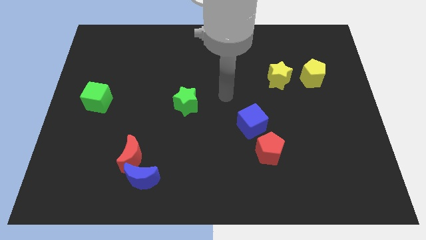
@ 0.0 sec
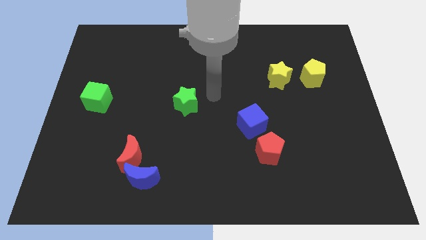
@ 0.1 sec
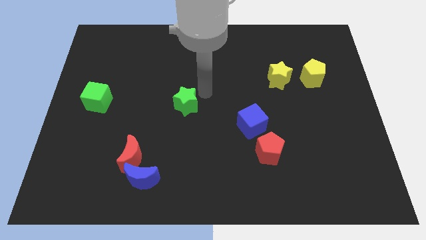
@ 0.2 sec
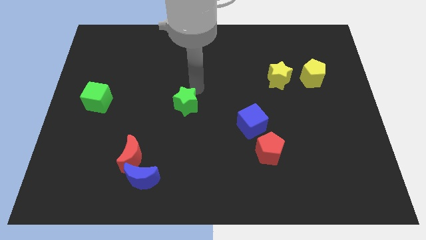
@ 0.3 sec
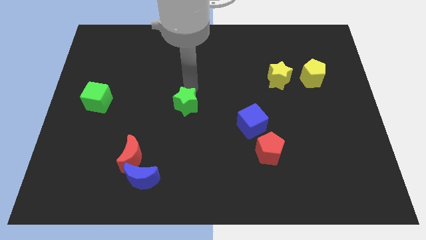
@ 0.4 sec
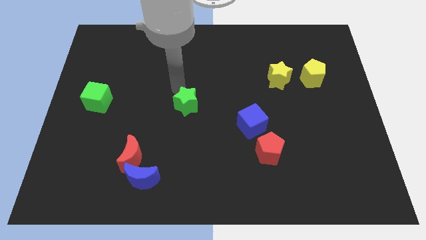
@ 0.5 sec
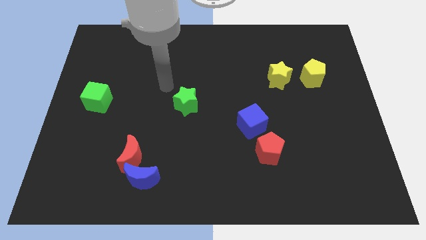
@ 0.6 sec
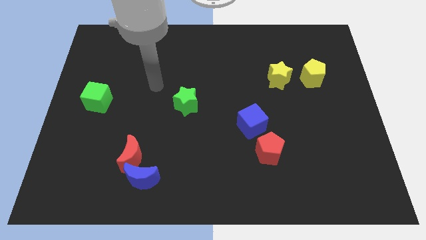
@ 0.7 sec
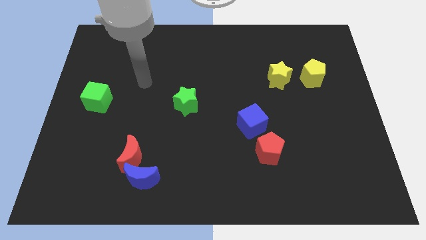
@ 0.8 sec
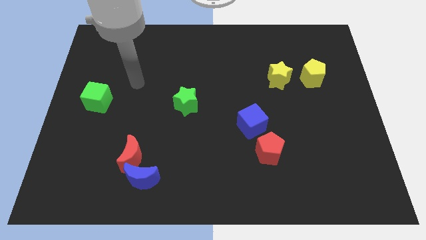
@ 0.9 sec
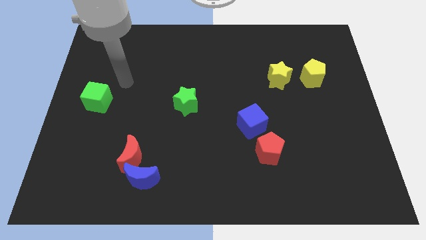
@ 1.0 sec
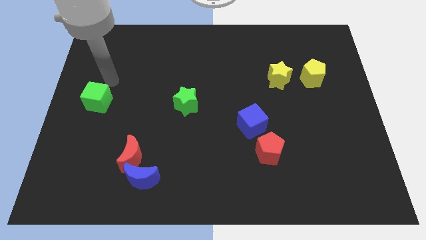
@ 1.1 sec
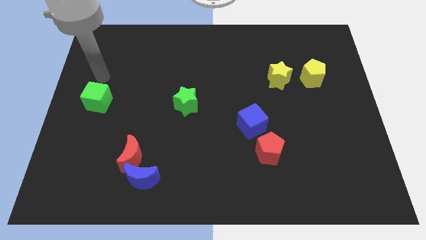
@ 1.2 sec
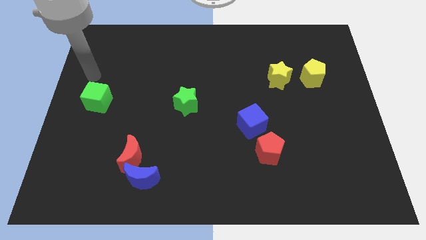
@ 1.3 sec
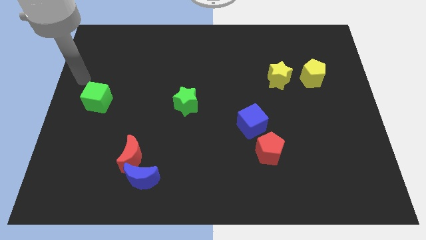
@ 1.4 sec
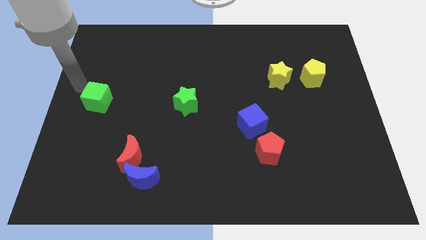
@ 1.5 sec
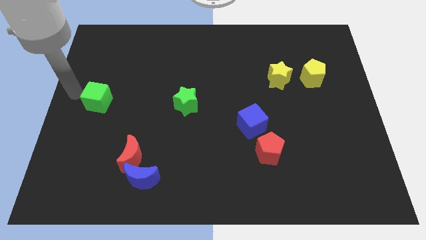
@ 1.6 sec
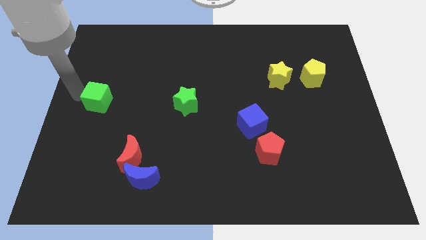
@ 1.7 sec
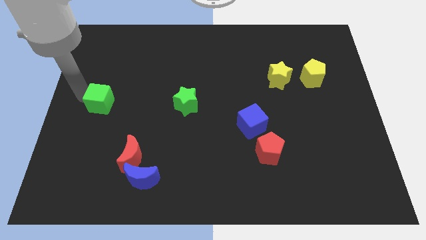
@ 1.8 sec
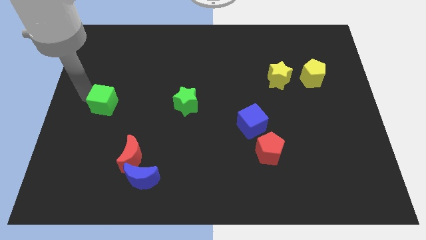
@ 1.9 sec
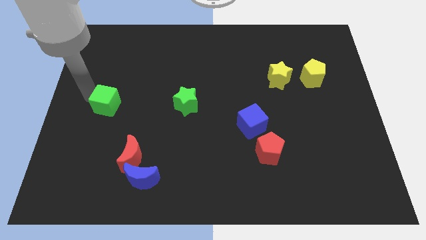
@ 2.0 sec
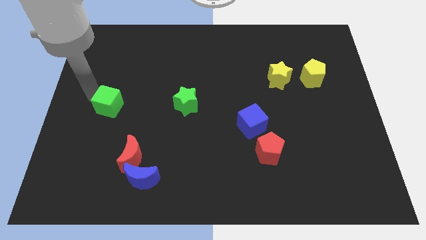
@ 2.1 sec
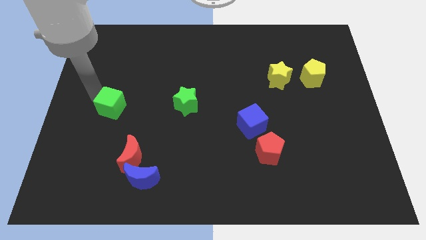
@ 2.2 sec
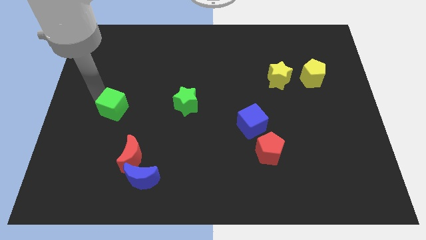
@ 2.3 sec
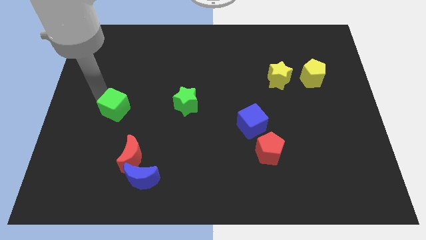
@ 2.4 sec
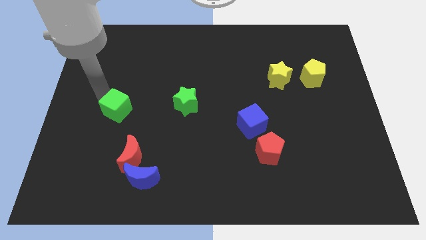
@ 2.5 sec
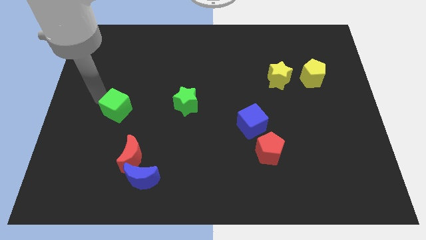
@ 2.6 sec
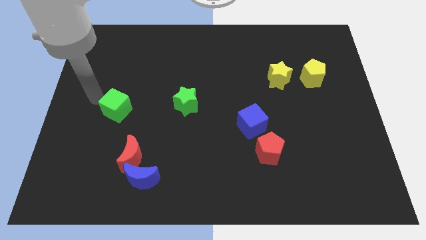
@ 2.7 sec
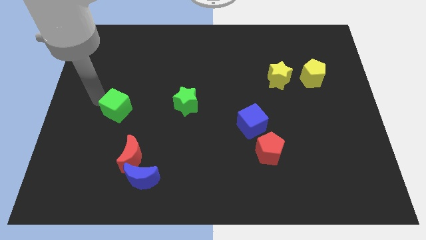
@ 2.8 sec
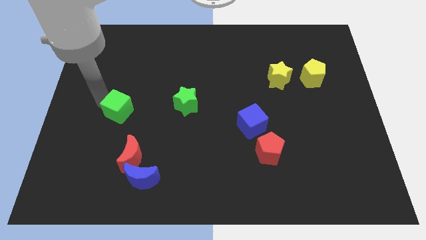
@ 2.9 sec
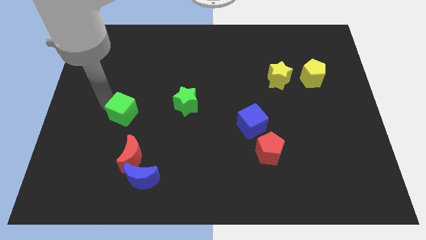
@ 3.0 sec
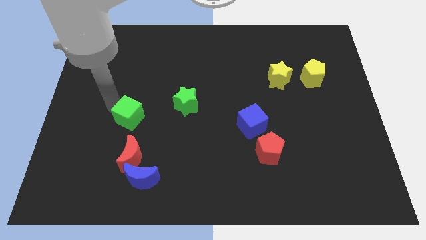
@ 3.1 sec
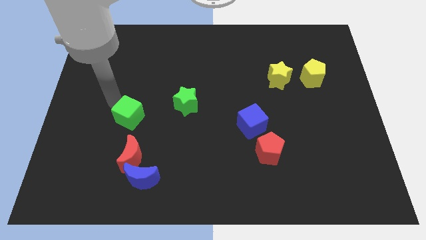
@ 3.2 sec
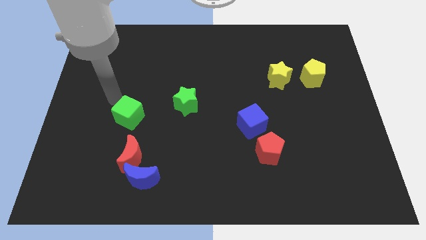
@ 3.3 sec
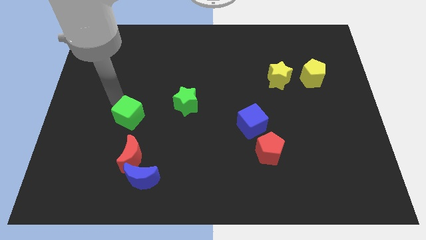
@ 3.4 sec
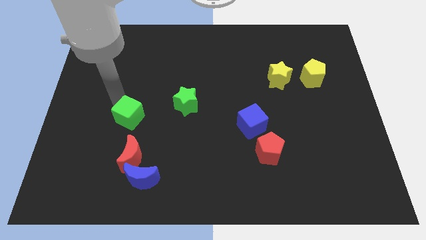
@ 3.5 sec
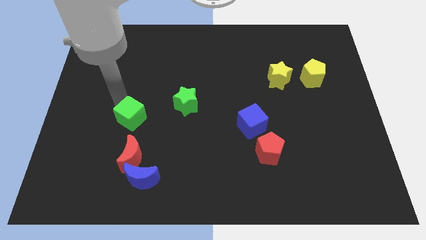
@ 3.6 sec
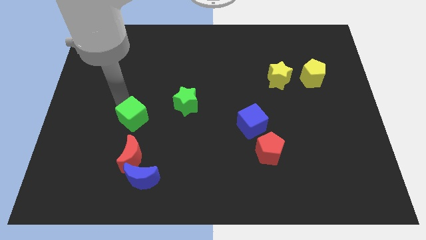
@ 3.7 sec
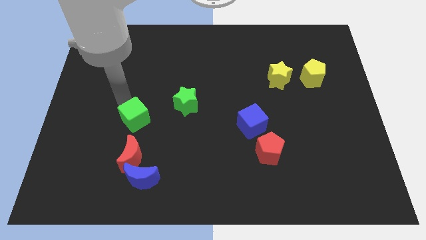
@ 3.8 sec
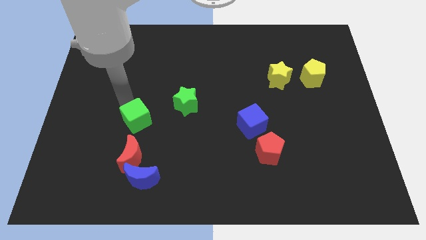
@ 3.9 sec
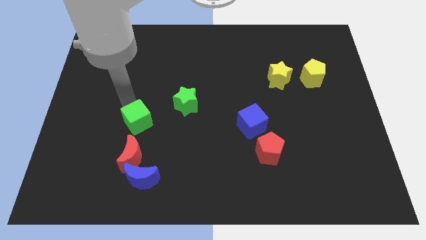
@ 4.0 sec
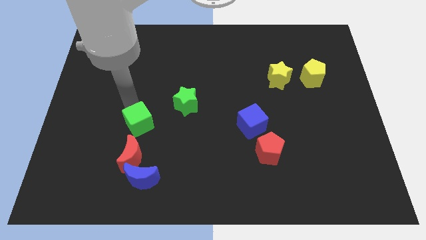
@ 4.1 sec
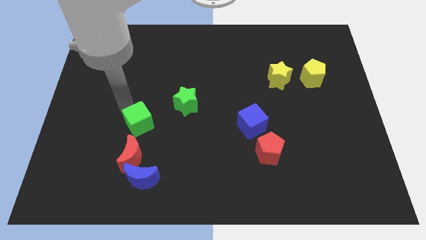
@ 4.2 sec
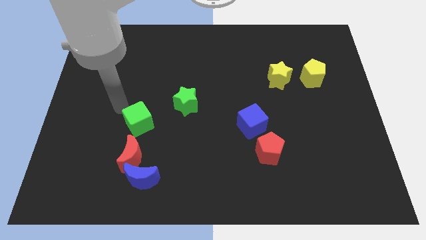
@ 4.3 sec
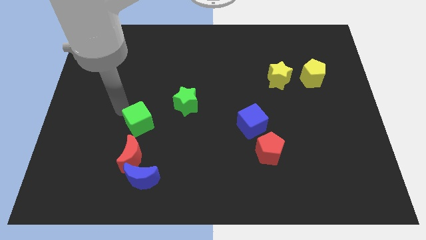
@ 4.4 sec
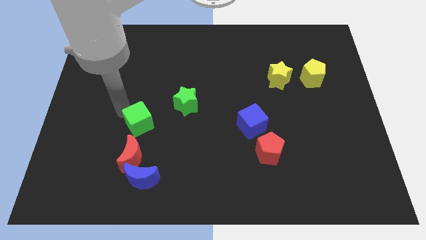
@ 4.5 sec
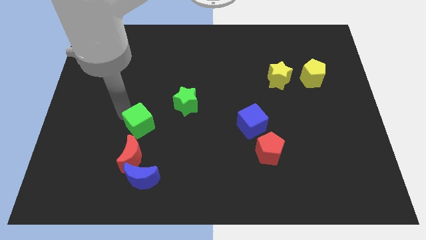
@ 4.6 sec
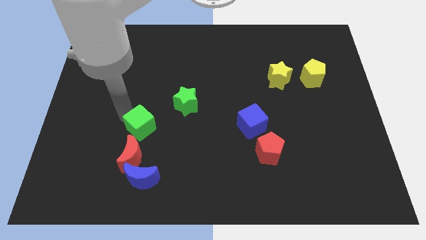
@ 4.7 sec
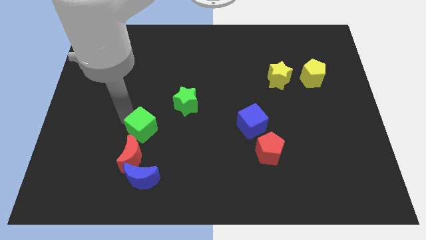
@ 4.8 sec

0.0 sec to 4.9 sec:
slide the green cube to the top right of the red moon

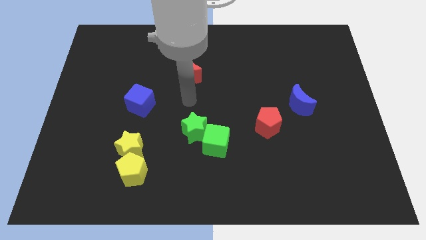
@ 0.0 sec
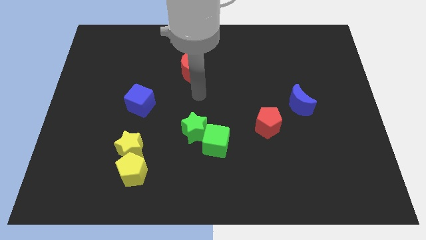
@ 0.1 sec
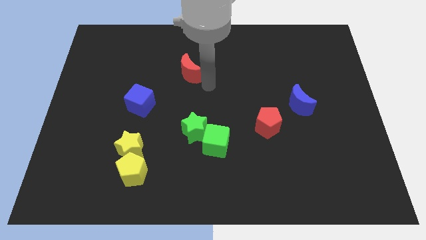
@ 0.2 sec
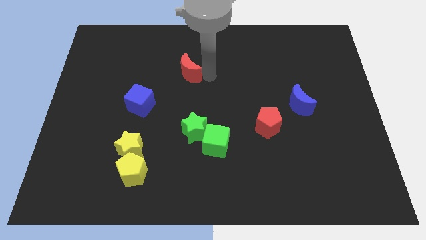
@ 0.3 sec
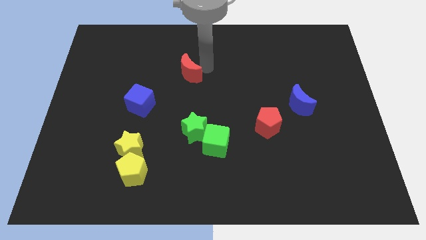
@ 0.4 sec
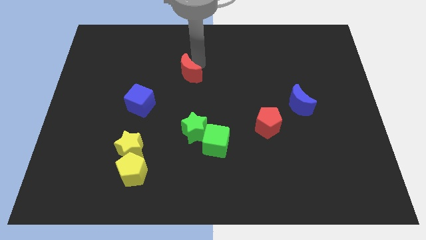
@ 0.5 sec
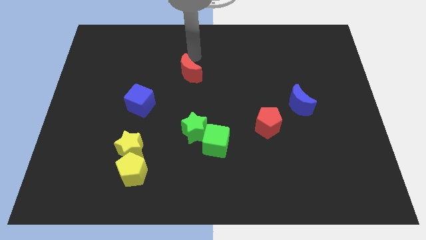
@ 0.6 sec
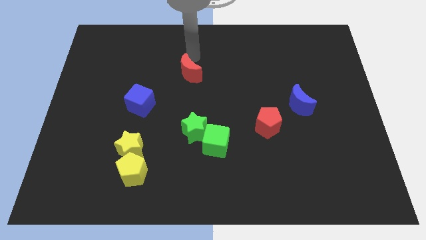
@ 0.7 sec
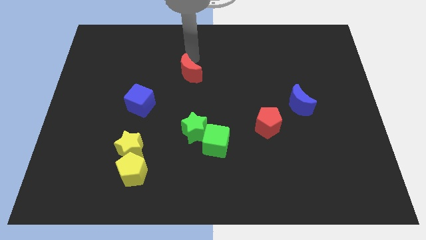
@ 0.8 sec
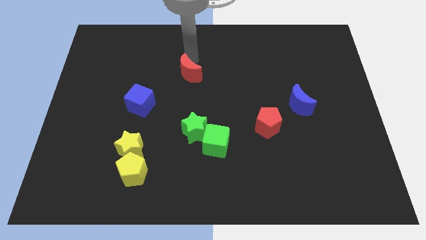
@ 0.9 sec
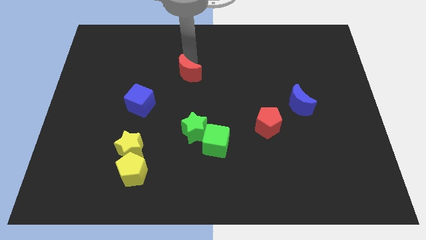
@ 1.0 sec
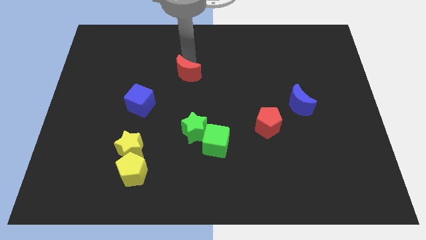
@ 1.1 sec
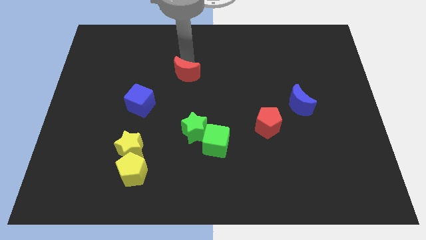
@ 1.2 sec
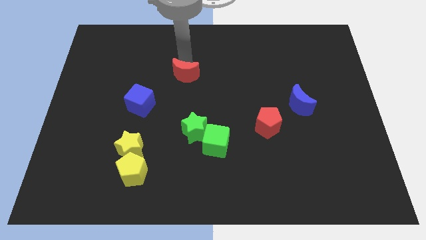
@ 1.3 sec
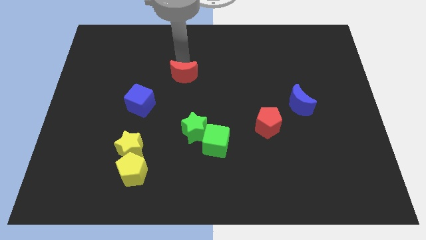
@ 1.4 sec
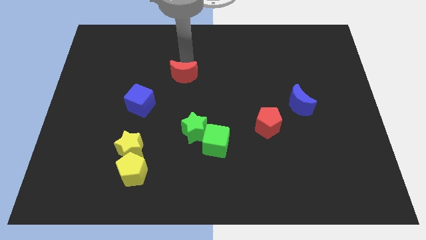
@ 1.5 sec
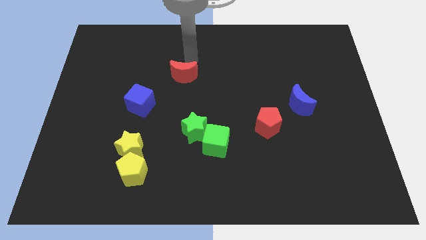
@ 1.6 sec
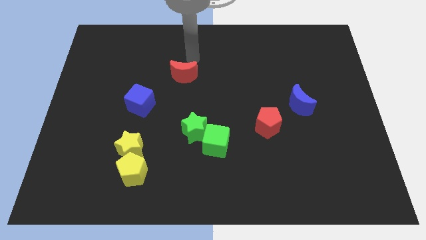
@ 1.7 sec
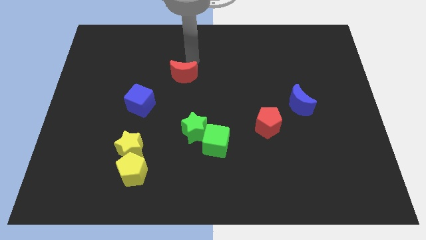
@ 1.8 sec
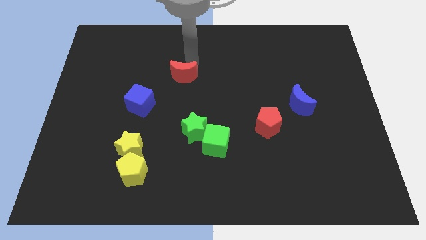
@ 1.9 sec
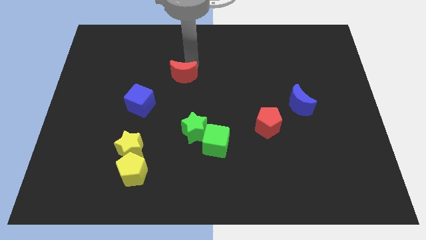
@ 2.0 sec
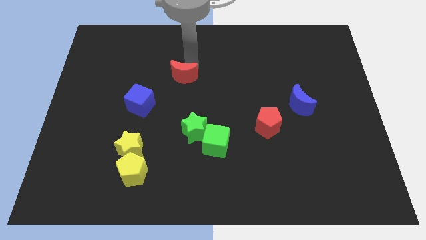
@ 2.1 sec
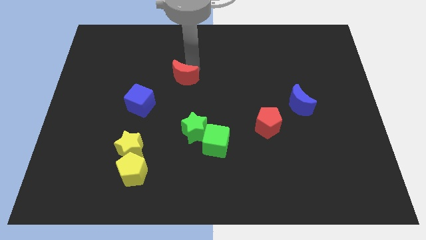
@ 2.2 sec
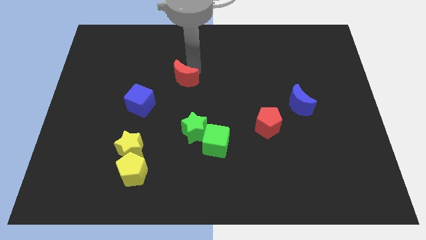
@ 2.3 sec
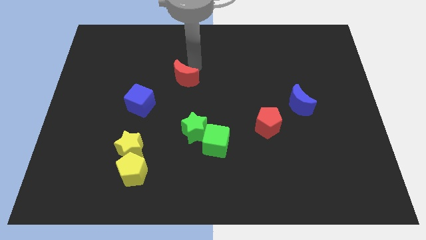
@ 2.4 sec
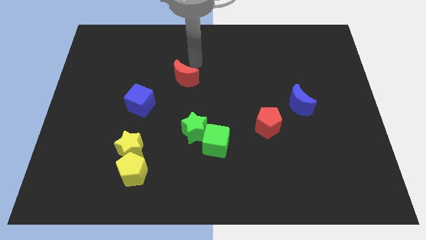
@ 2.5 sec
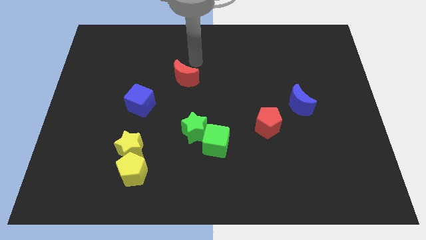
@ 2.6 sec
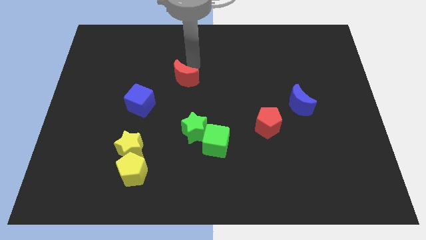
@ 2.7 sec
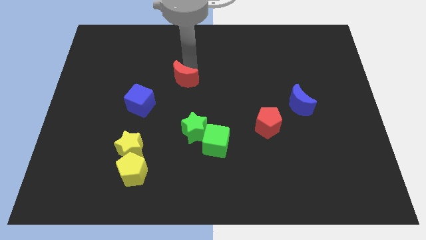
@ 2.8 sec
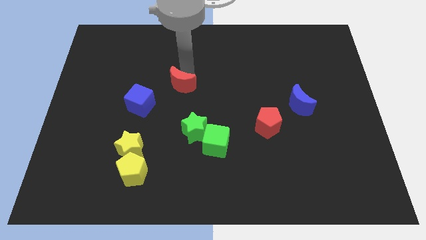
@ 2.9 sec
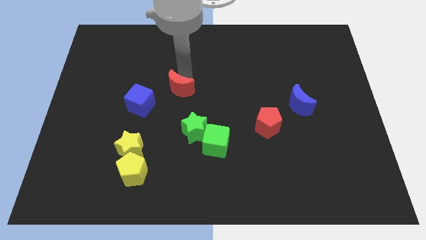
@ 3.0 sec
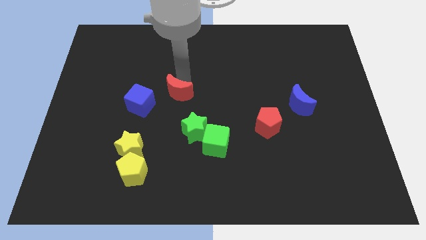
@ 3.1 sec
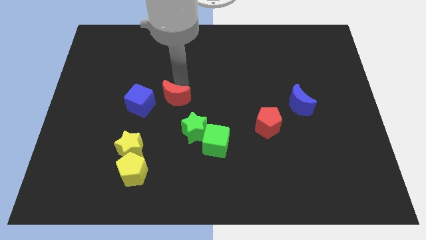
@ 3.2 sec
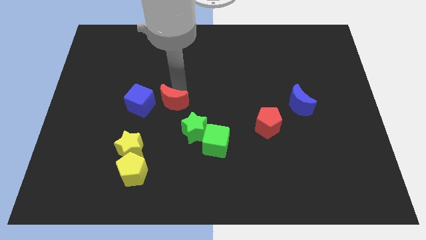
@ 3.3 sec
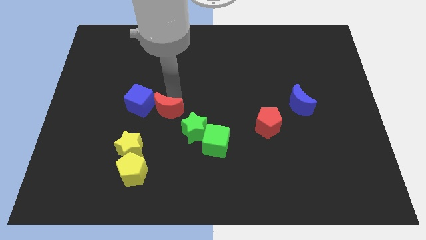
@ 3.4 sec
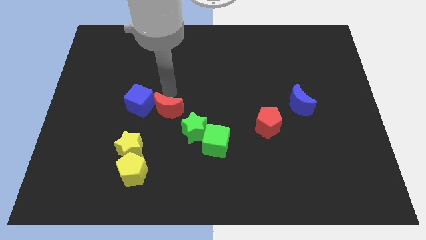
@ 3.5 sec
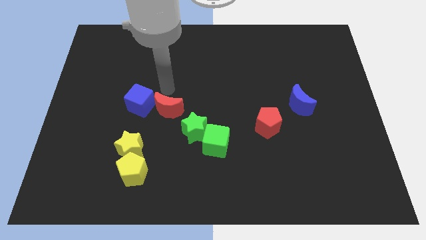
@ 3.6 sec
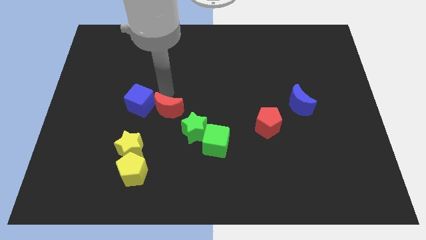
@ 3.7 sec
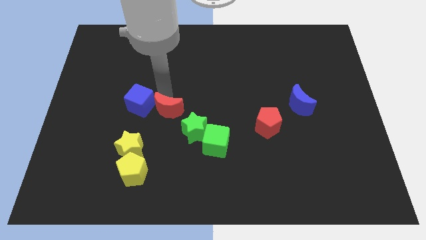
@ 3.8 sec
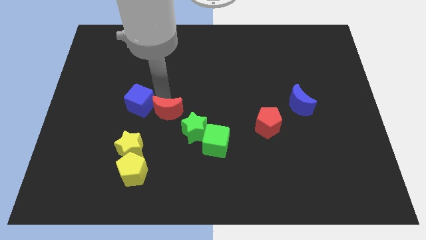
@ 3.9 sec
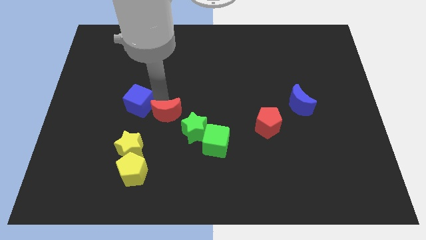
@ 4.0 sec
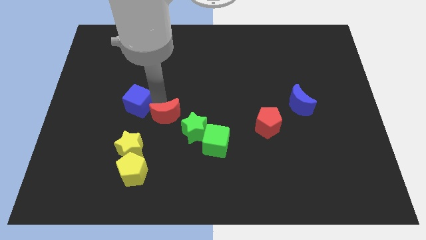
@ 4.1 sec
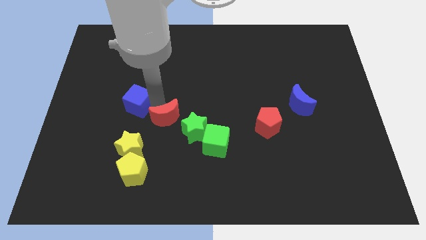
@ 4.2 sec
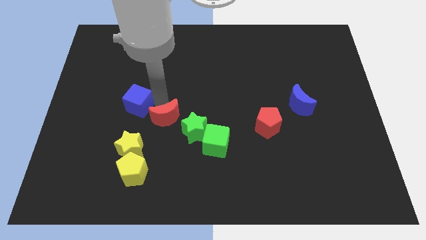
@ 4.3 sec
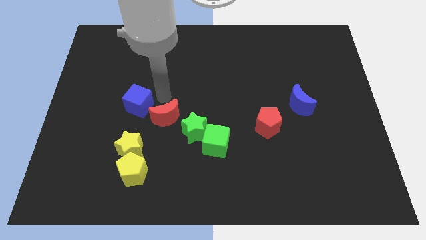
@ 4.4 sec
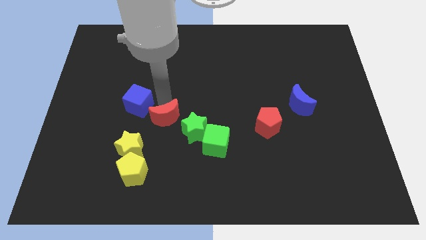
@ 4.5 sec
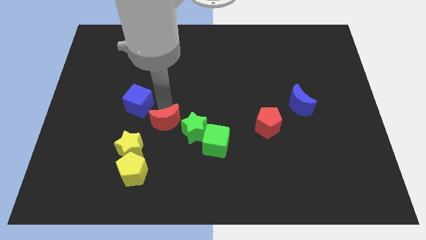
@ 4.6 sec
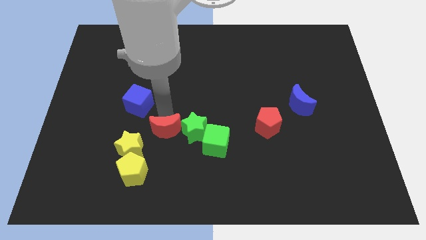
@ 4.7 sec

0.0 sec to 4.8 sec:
put the red moon diagonally down and to the left of the green star
